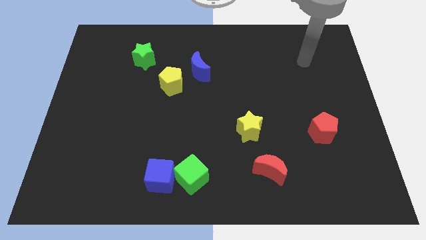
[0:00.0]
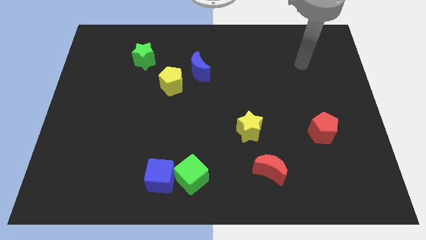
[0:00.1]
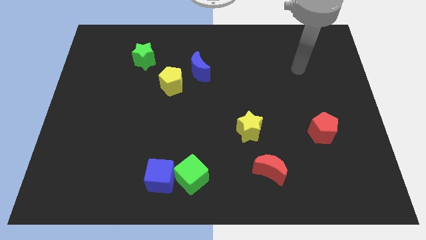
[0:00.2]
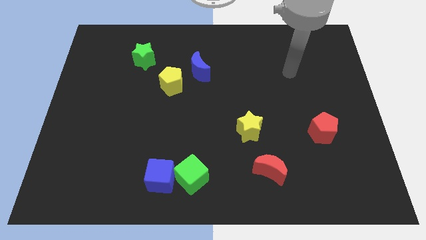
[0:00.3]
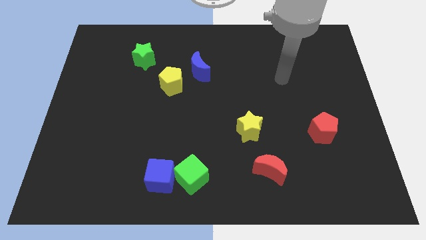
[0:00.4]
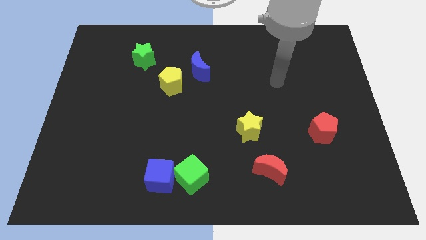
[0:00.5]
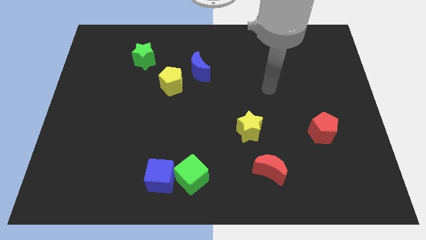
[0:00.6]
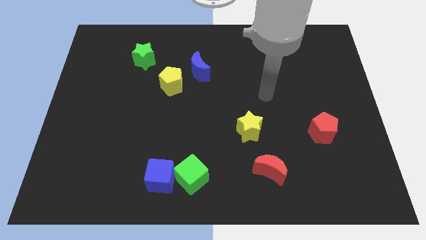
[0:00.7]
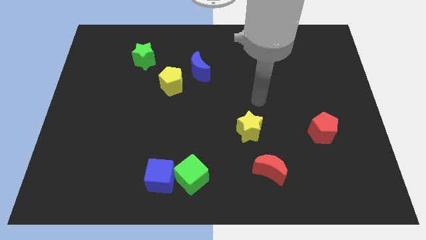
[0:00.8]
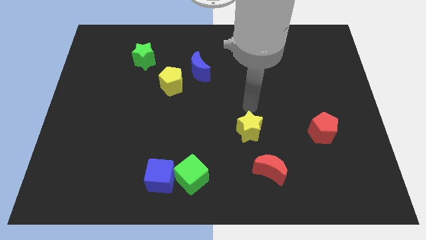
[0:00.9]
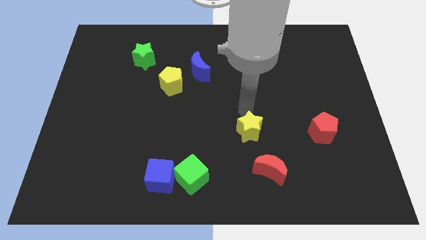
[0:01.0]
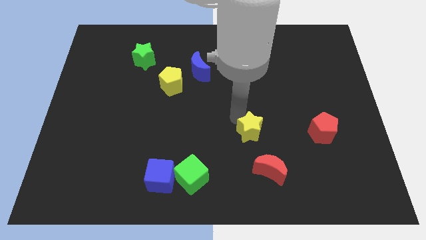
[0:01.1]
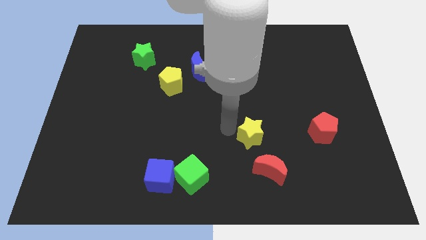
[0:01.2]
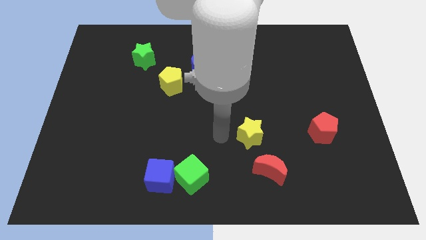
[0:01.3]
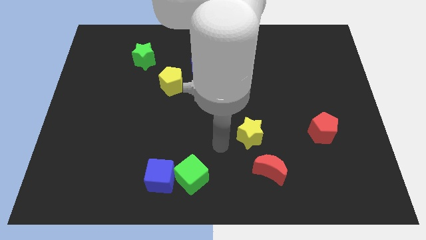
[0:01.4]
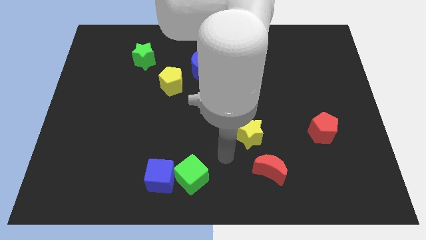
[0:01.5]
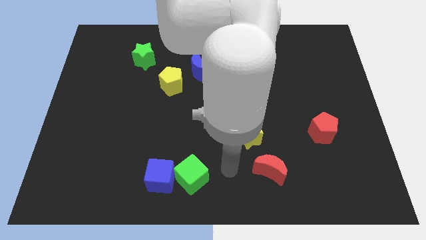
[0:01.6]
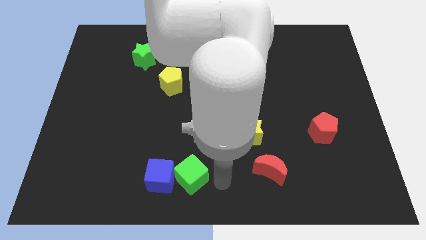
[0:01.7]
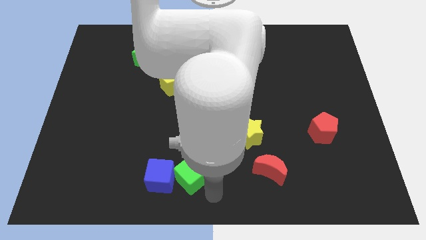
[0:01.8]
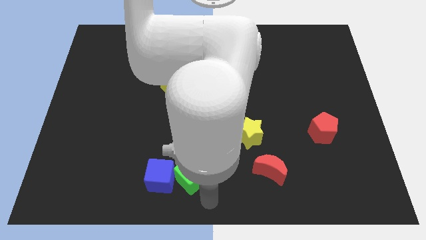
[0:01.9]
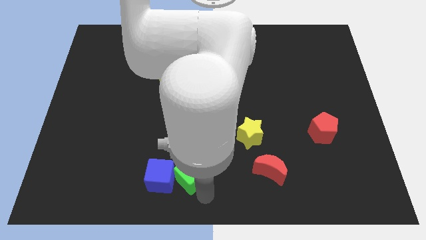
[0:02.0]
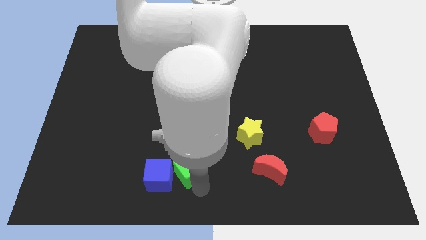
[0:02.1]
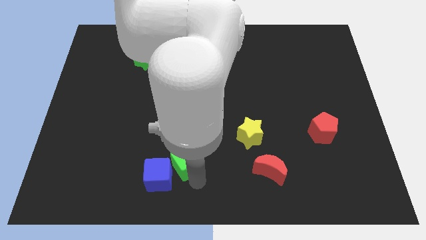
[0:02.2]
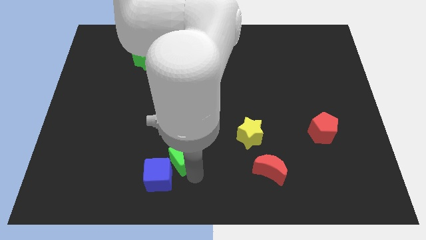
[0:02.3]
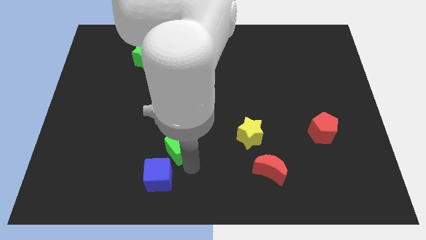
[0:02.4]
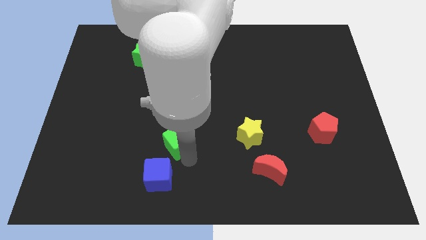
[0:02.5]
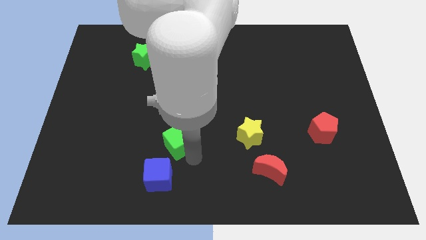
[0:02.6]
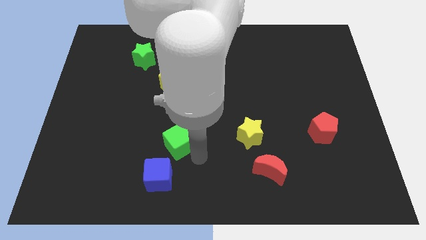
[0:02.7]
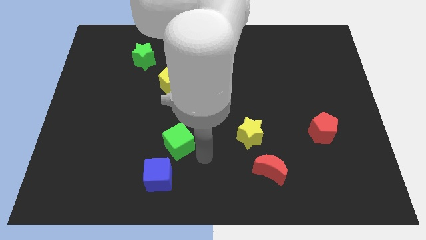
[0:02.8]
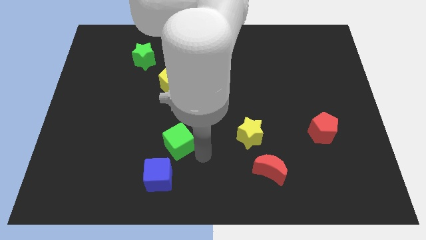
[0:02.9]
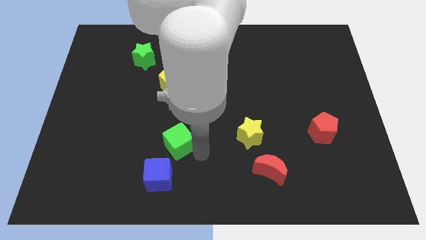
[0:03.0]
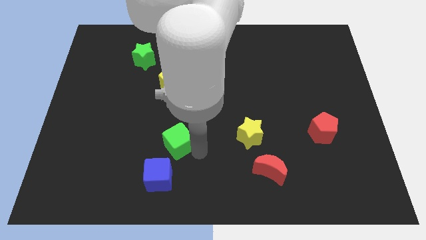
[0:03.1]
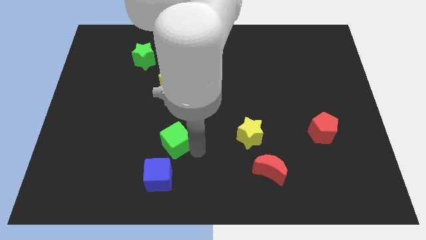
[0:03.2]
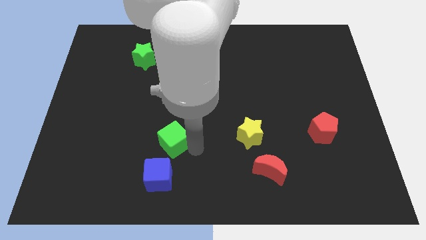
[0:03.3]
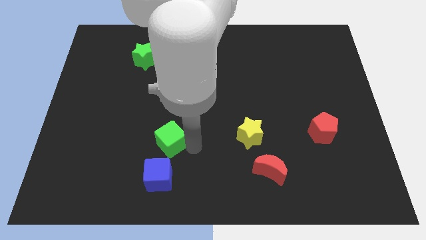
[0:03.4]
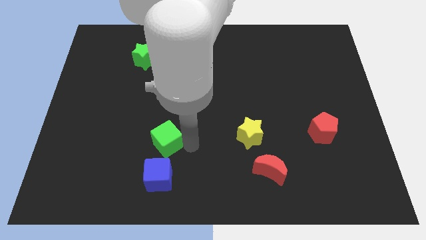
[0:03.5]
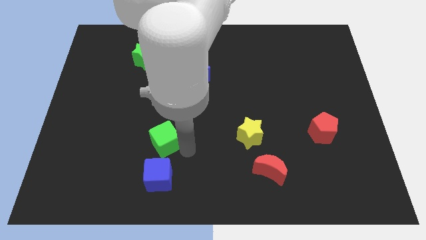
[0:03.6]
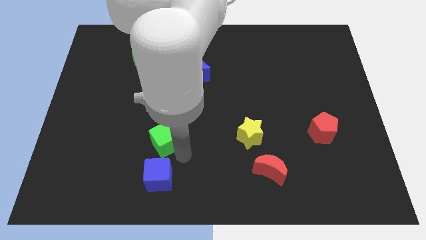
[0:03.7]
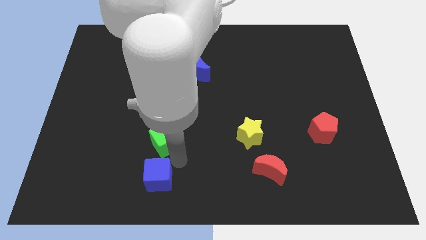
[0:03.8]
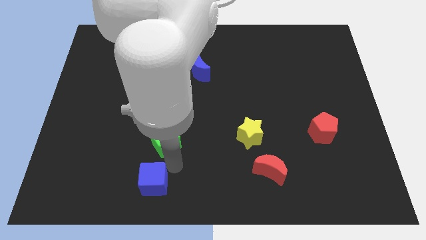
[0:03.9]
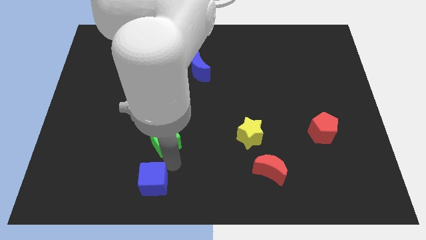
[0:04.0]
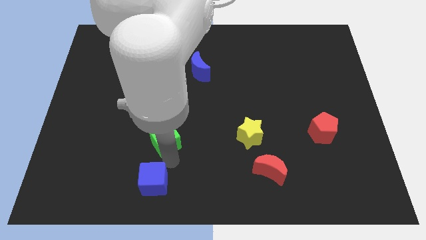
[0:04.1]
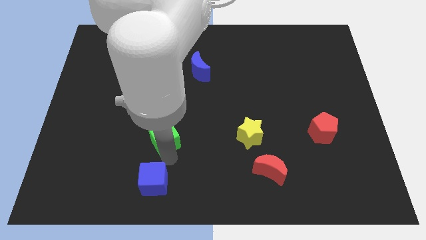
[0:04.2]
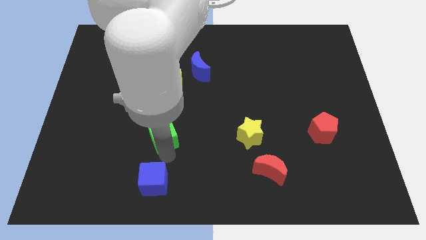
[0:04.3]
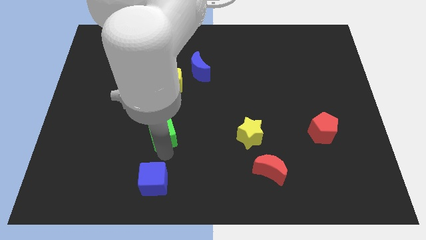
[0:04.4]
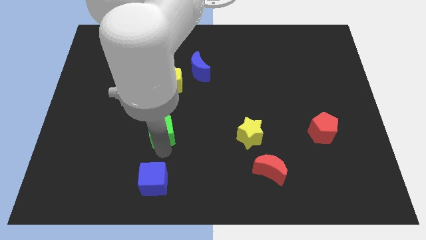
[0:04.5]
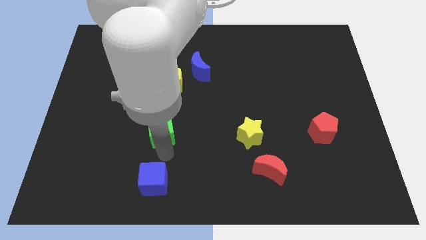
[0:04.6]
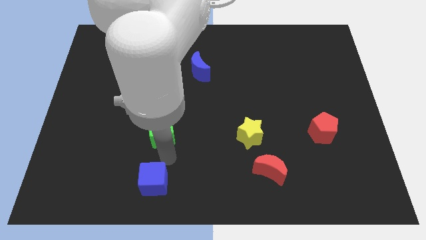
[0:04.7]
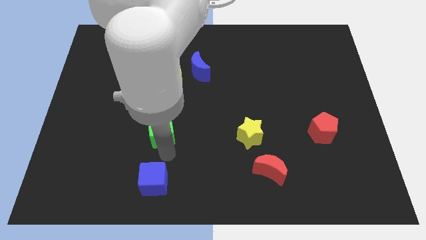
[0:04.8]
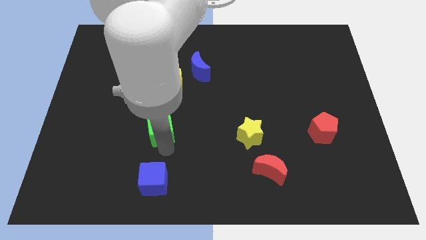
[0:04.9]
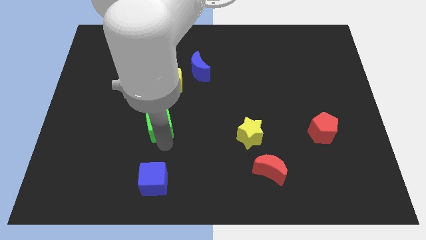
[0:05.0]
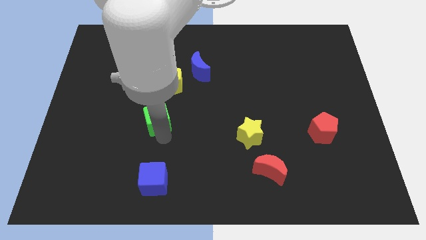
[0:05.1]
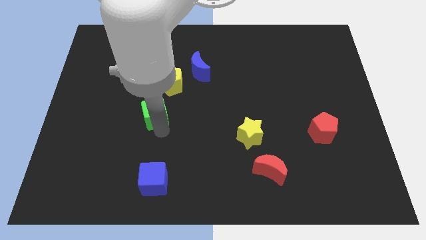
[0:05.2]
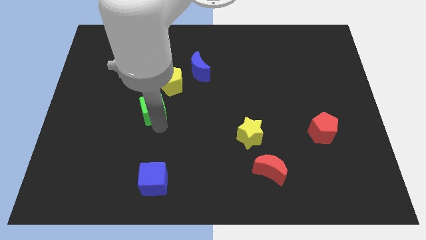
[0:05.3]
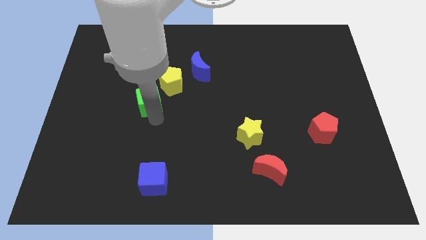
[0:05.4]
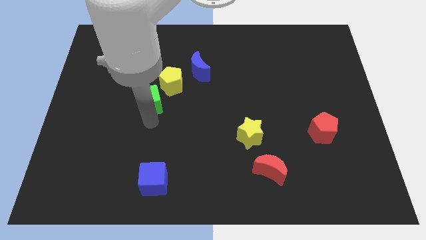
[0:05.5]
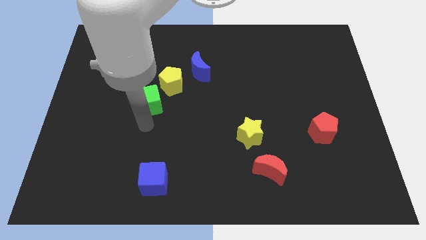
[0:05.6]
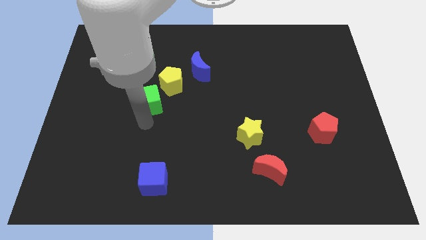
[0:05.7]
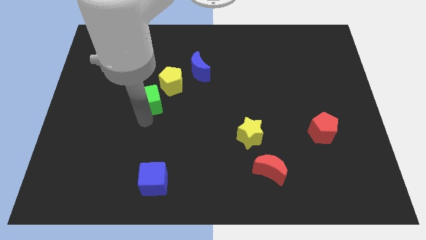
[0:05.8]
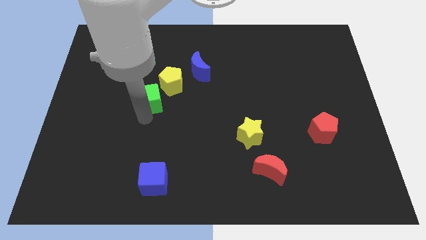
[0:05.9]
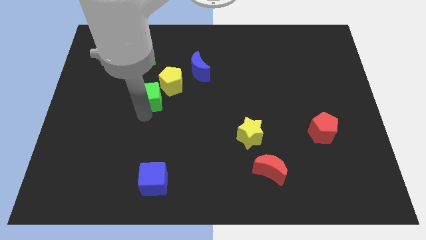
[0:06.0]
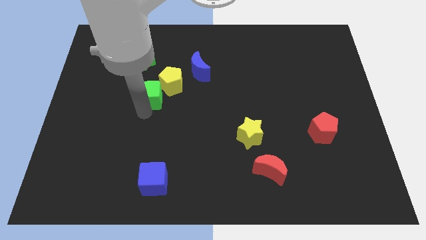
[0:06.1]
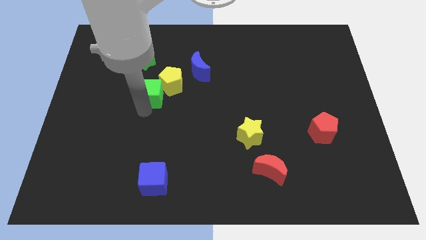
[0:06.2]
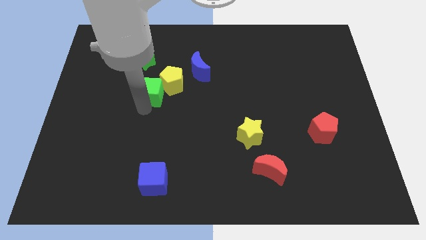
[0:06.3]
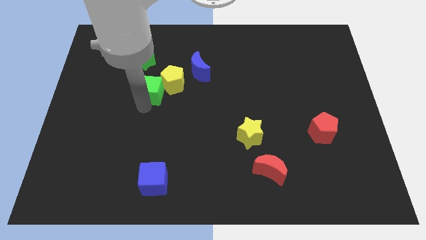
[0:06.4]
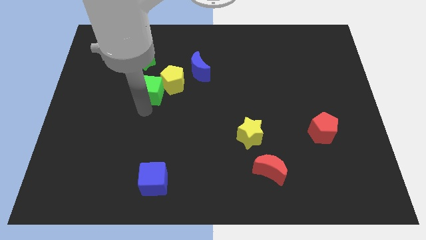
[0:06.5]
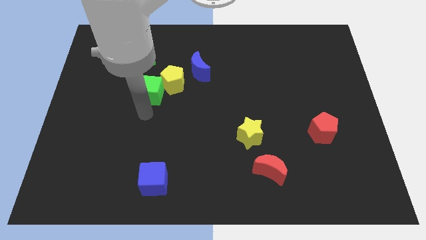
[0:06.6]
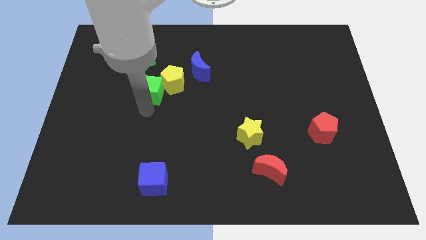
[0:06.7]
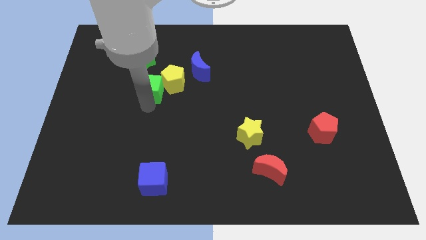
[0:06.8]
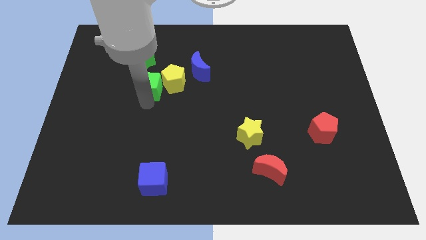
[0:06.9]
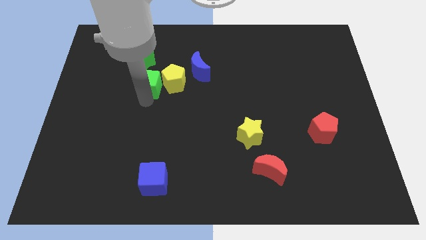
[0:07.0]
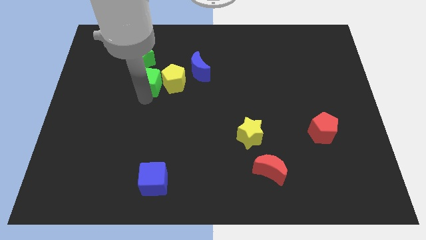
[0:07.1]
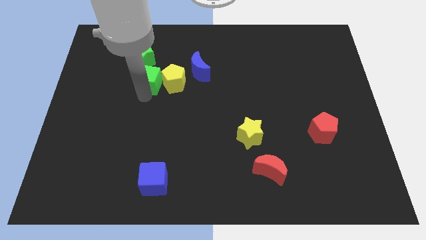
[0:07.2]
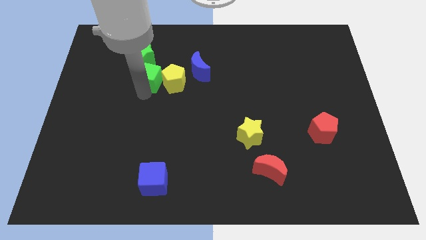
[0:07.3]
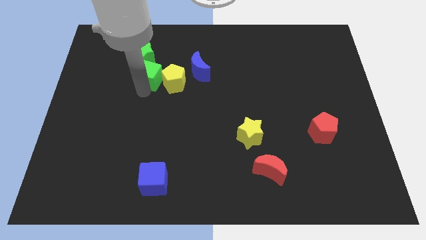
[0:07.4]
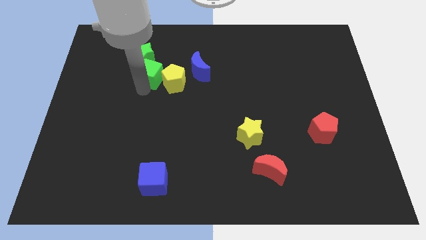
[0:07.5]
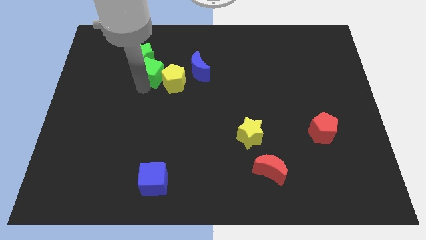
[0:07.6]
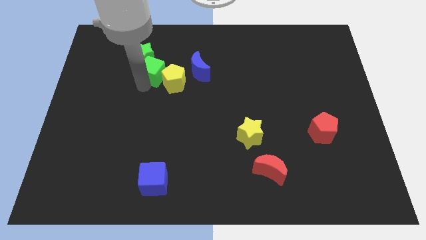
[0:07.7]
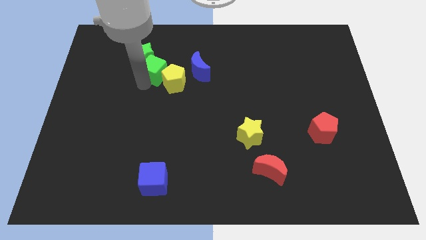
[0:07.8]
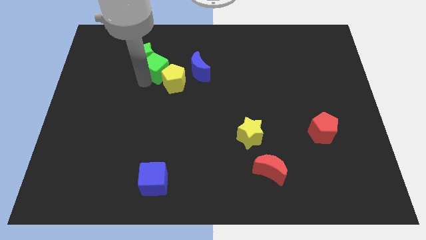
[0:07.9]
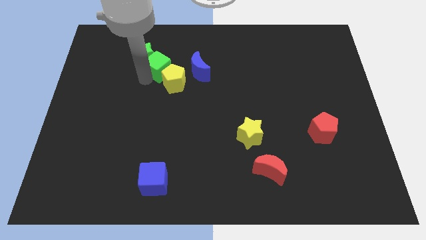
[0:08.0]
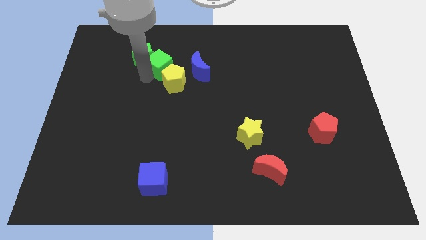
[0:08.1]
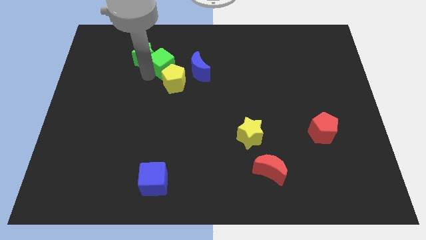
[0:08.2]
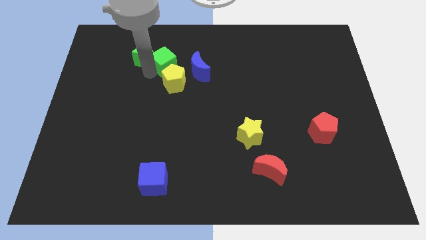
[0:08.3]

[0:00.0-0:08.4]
put the green cube diagonally up and to the left of the blue moon
